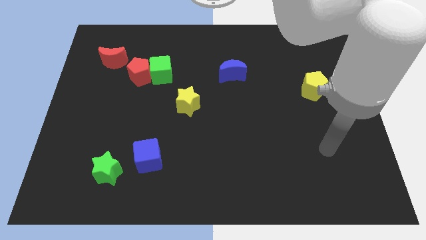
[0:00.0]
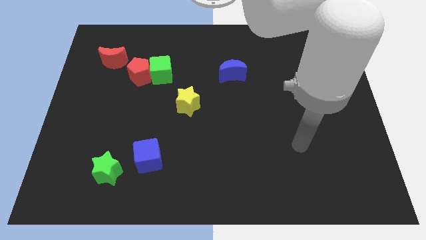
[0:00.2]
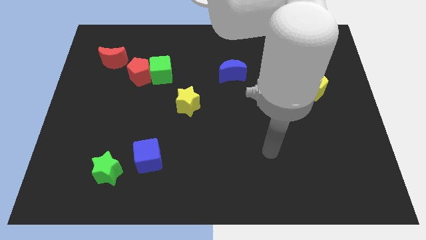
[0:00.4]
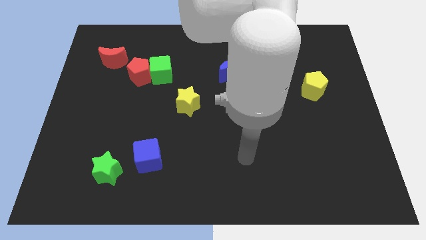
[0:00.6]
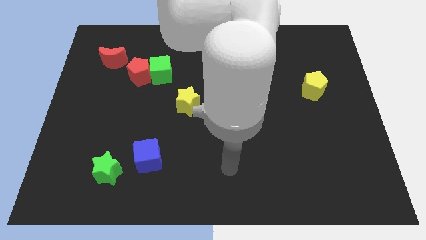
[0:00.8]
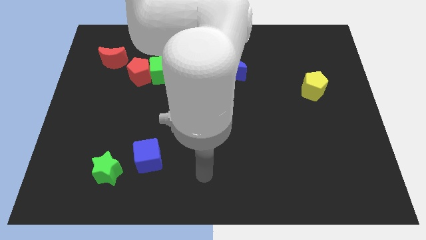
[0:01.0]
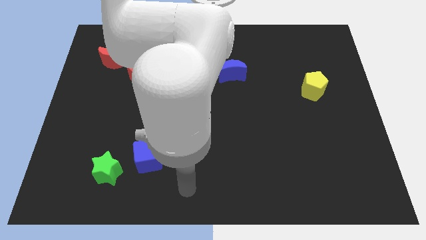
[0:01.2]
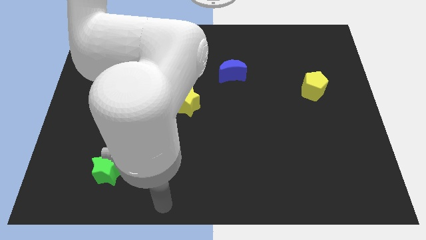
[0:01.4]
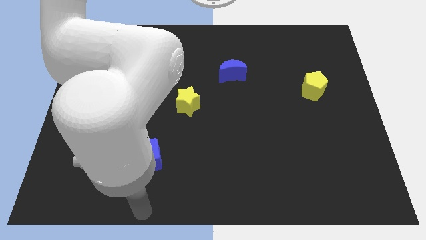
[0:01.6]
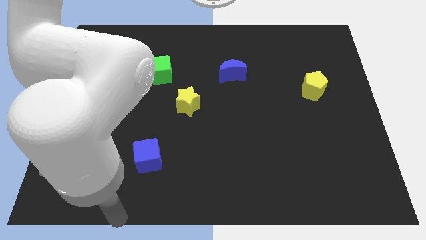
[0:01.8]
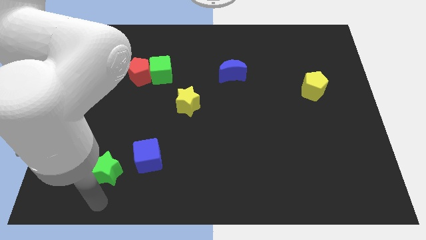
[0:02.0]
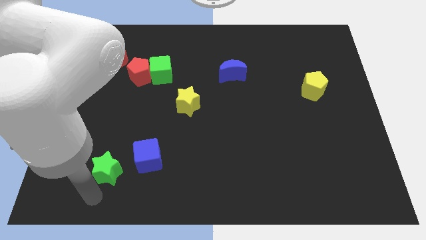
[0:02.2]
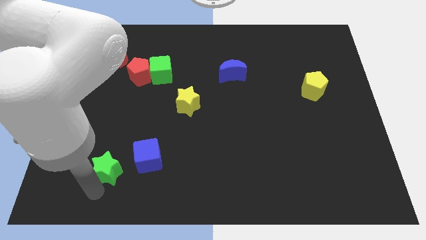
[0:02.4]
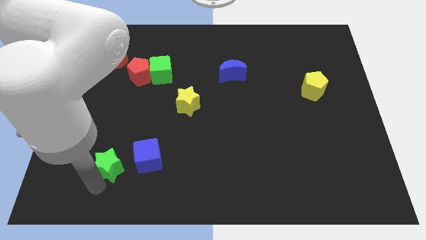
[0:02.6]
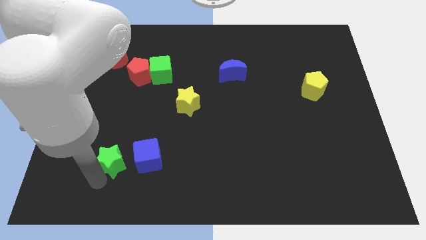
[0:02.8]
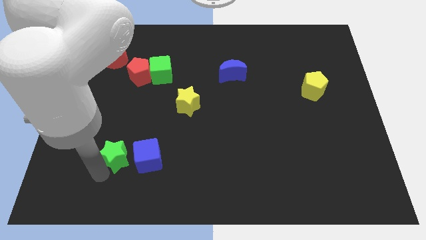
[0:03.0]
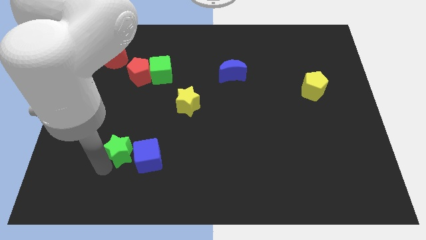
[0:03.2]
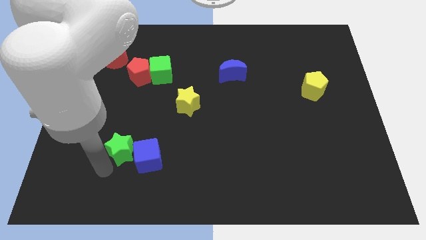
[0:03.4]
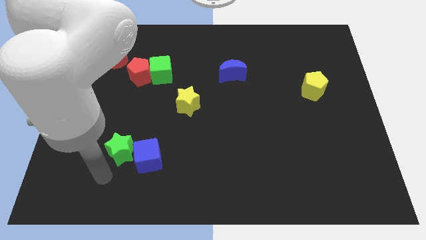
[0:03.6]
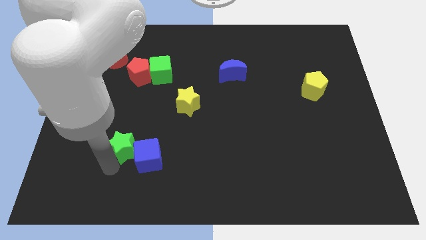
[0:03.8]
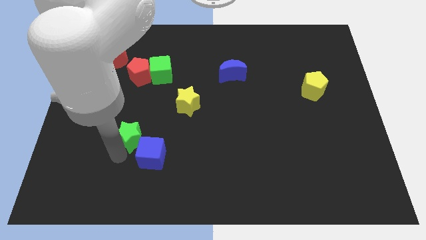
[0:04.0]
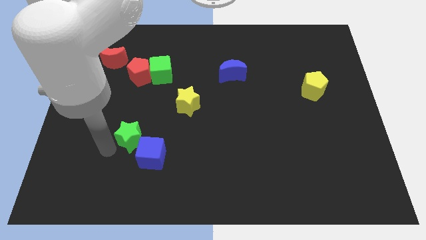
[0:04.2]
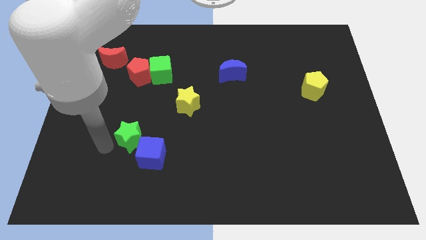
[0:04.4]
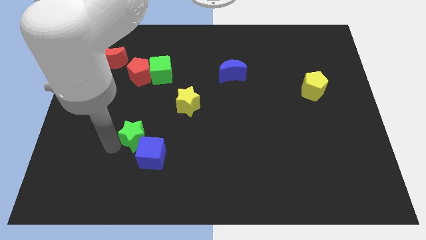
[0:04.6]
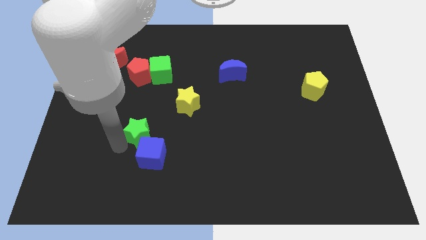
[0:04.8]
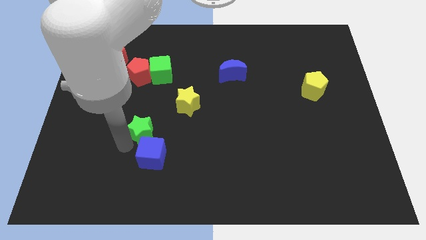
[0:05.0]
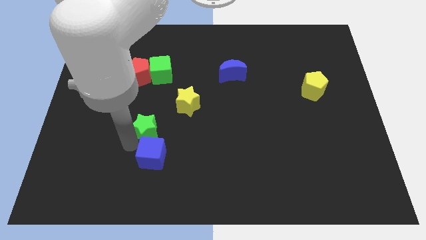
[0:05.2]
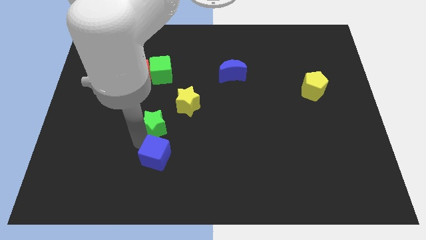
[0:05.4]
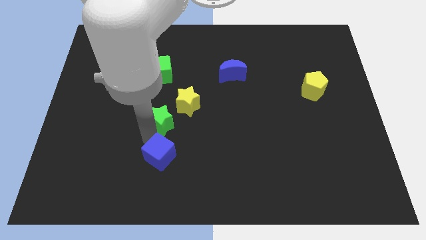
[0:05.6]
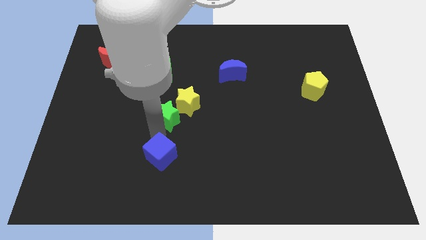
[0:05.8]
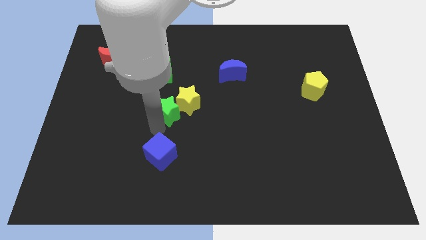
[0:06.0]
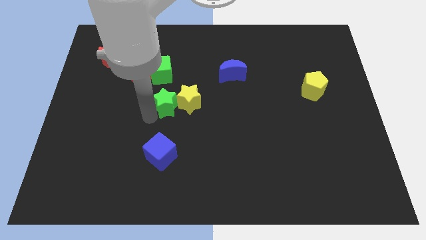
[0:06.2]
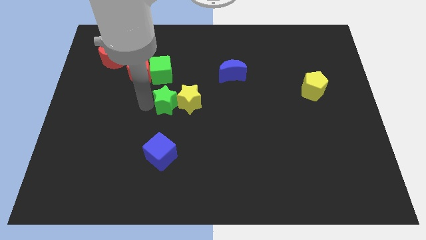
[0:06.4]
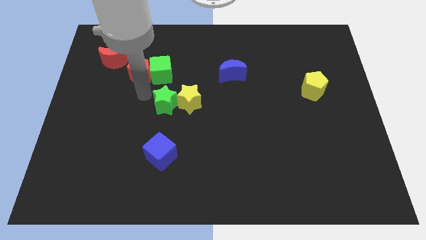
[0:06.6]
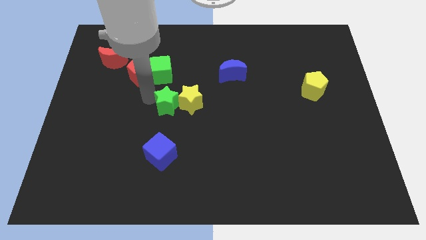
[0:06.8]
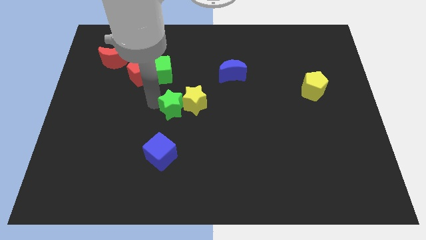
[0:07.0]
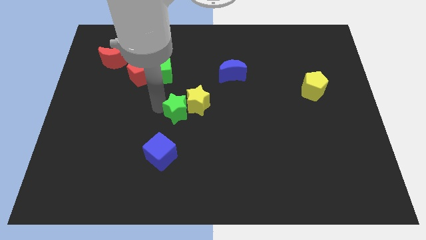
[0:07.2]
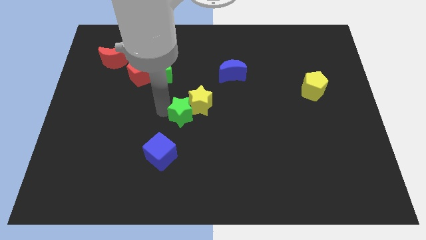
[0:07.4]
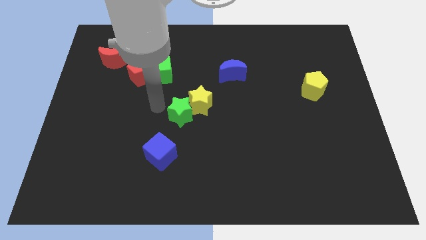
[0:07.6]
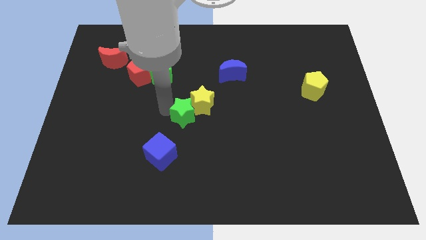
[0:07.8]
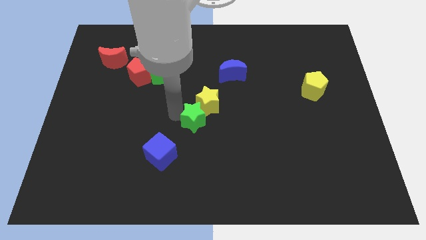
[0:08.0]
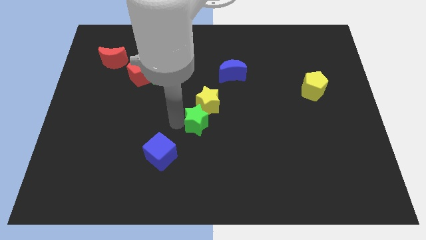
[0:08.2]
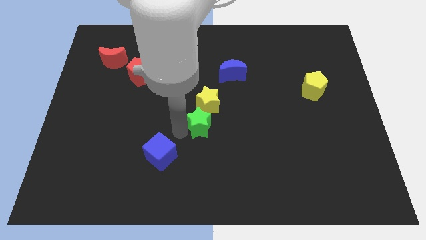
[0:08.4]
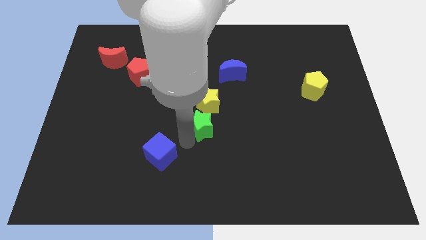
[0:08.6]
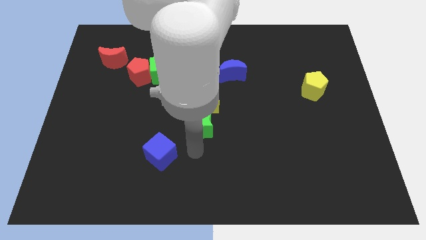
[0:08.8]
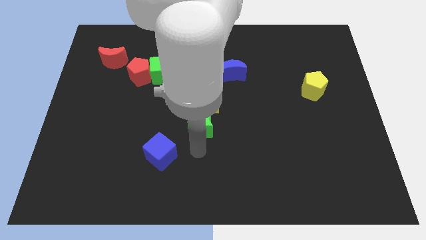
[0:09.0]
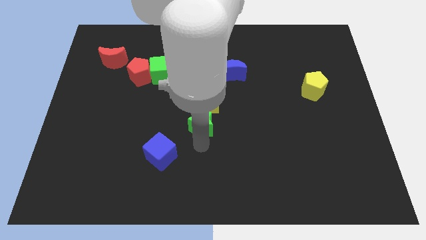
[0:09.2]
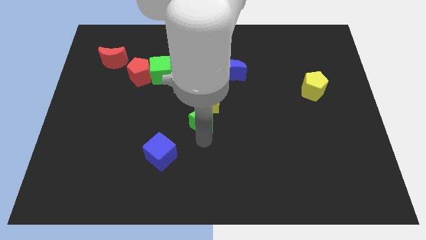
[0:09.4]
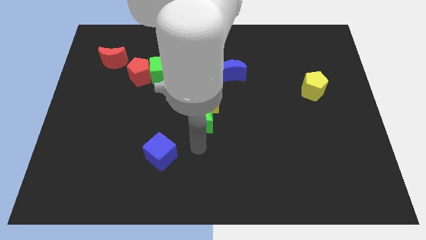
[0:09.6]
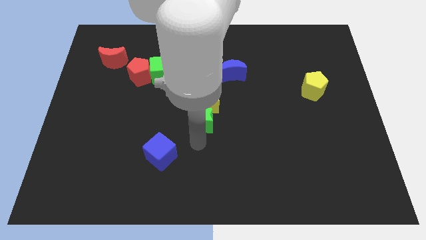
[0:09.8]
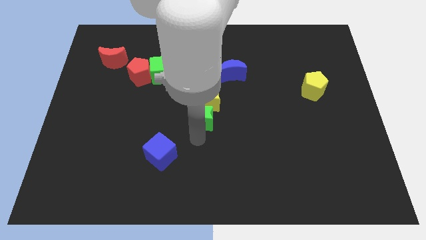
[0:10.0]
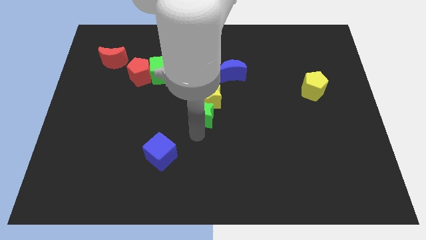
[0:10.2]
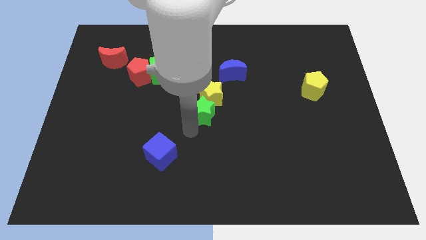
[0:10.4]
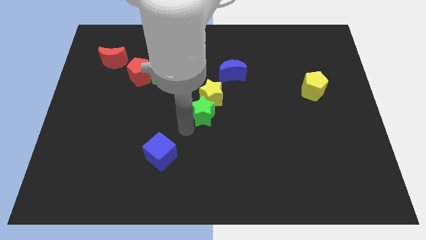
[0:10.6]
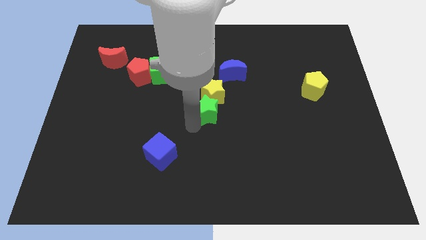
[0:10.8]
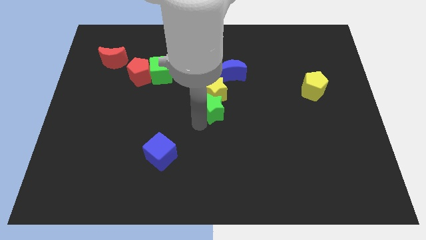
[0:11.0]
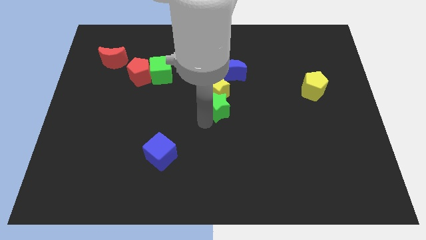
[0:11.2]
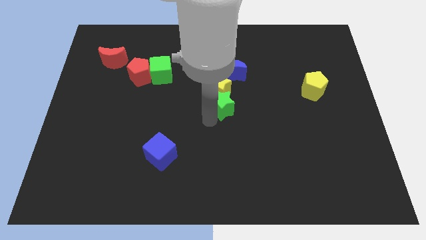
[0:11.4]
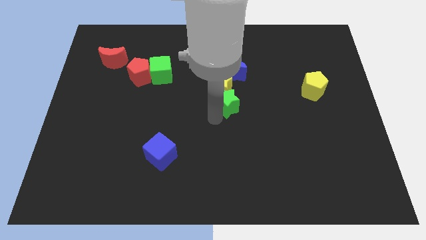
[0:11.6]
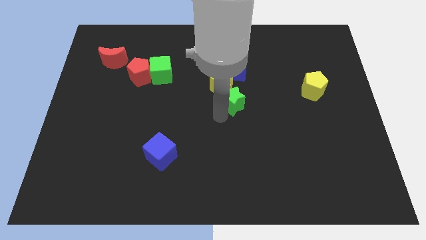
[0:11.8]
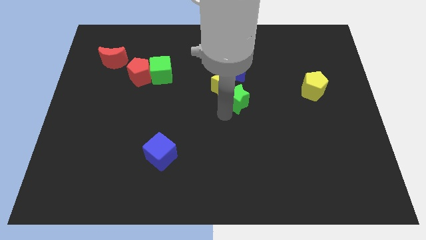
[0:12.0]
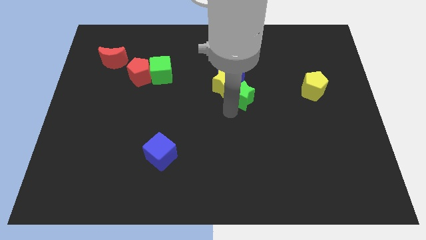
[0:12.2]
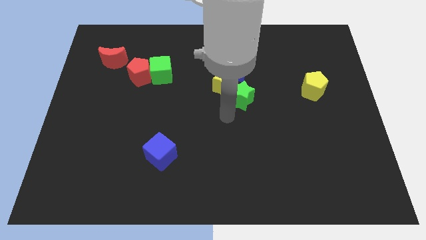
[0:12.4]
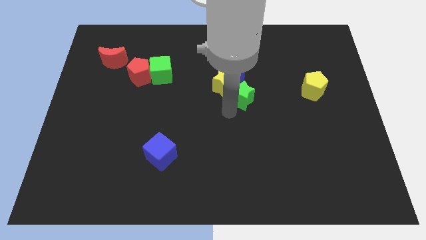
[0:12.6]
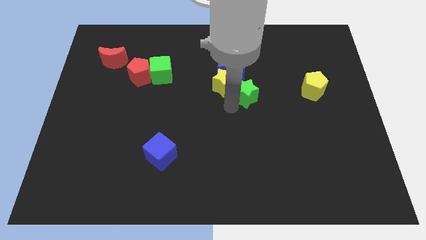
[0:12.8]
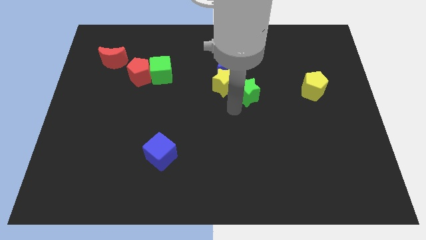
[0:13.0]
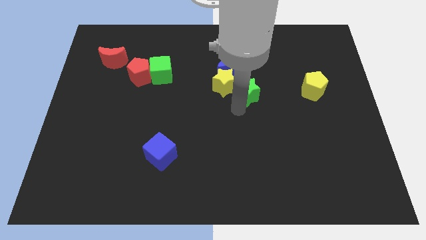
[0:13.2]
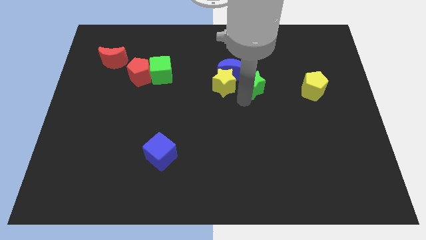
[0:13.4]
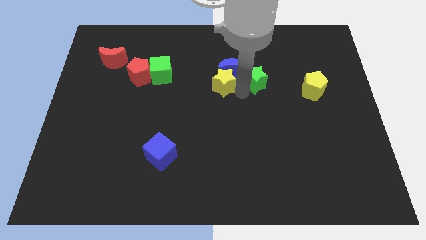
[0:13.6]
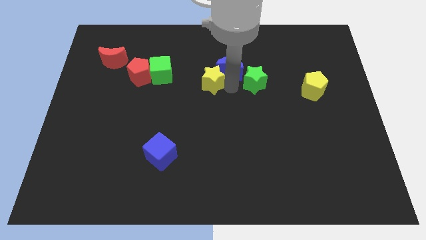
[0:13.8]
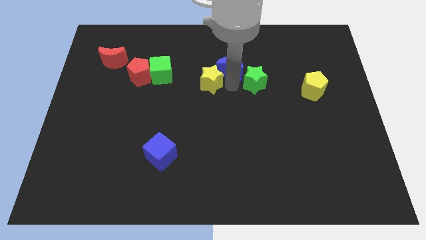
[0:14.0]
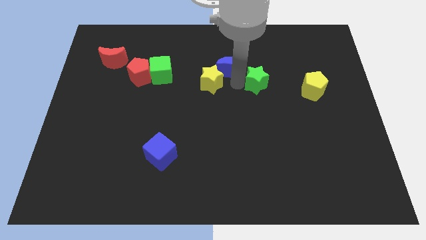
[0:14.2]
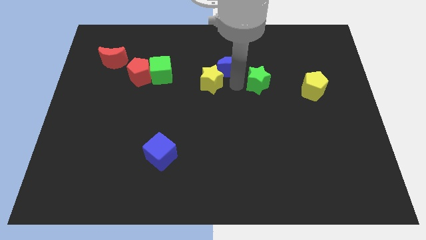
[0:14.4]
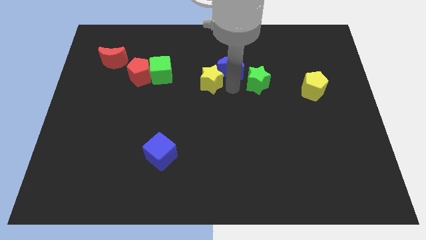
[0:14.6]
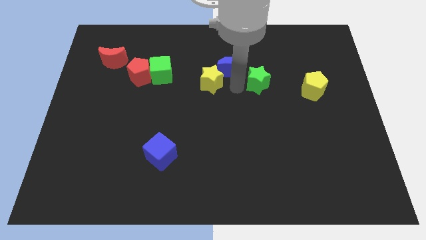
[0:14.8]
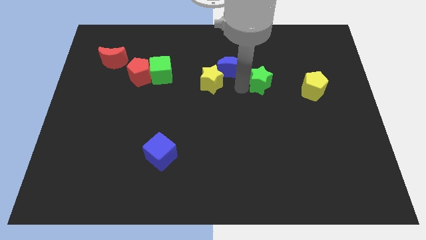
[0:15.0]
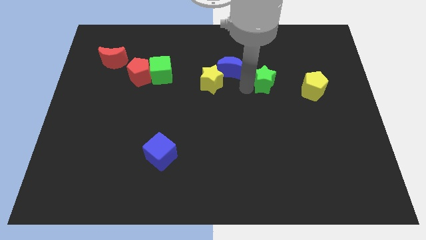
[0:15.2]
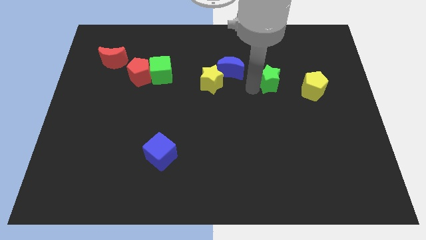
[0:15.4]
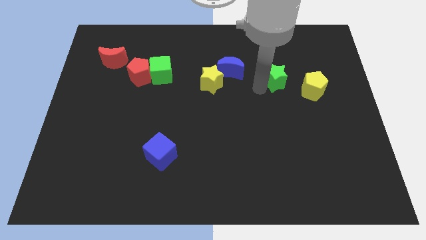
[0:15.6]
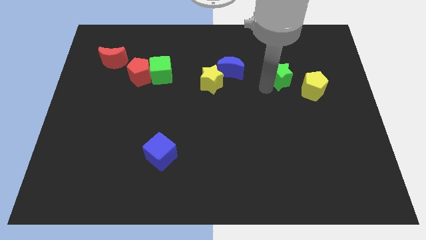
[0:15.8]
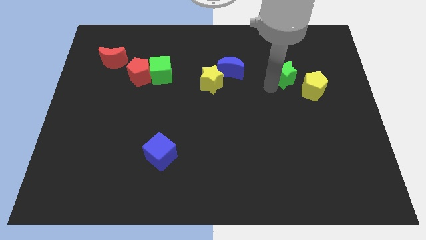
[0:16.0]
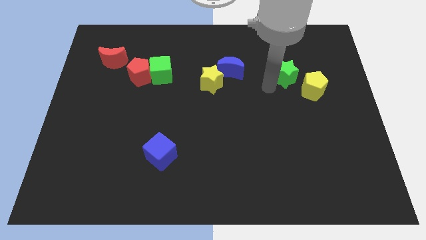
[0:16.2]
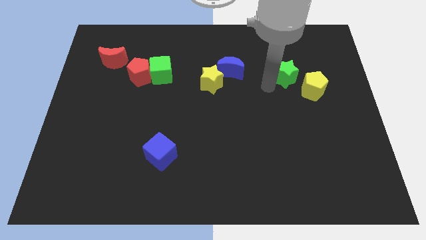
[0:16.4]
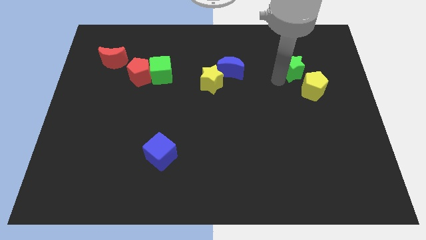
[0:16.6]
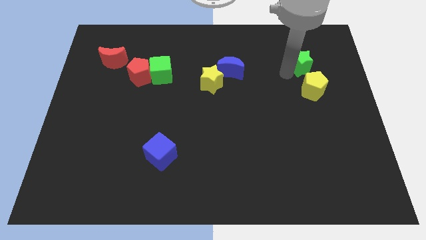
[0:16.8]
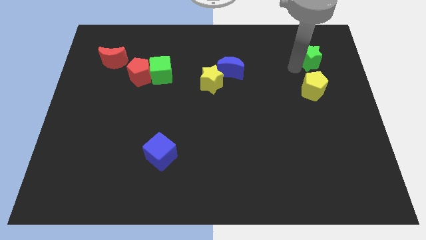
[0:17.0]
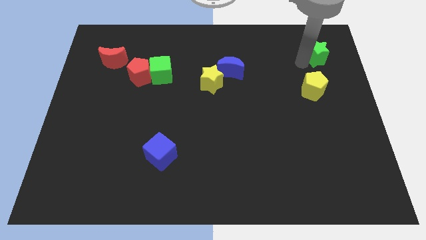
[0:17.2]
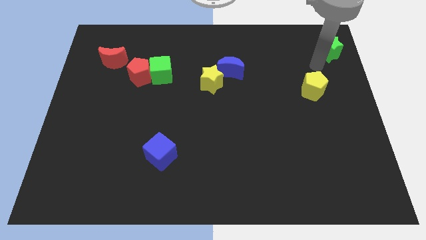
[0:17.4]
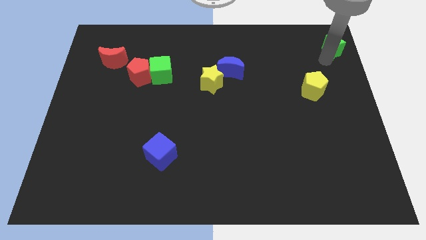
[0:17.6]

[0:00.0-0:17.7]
slide the green star to the upper right corner
